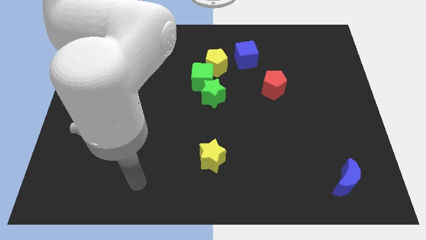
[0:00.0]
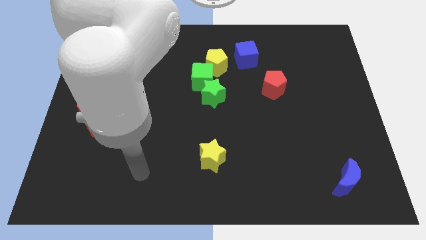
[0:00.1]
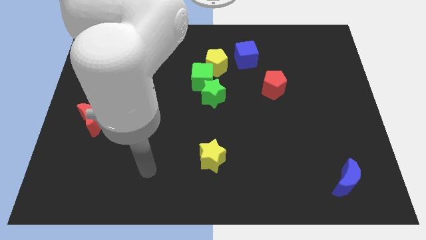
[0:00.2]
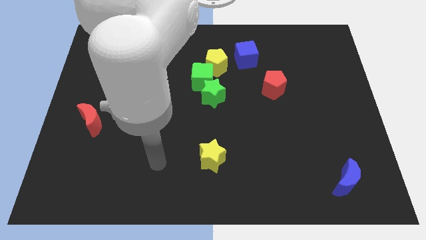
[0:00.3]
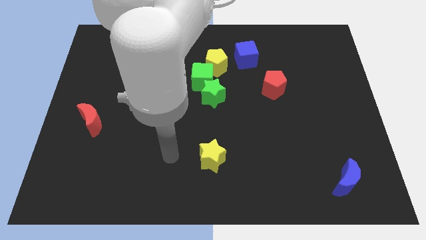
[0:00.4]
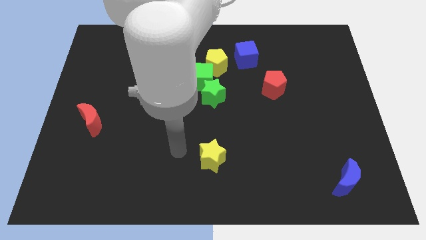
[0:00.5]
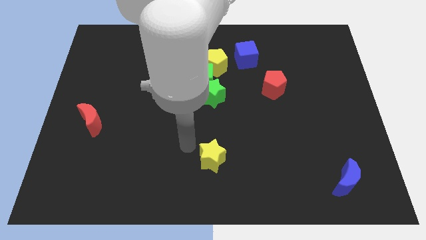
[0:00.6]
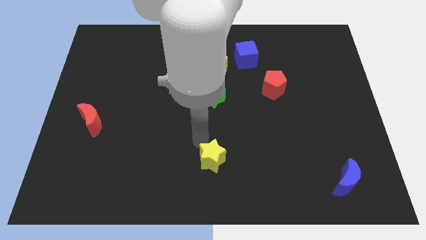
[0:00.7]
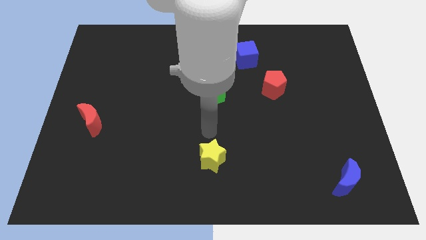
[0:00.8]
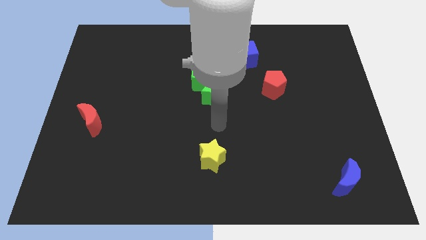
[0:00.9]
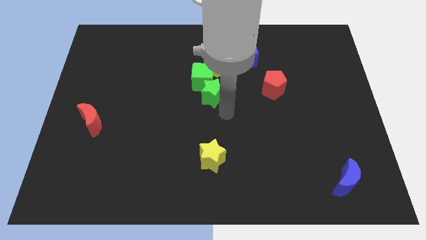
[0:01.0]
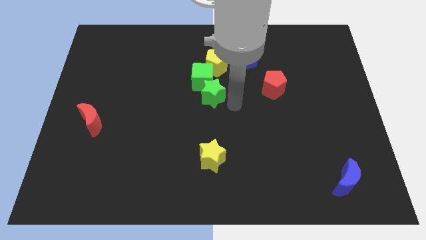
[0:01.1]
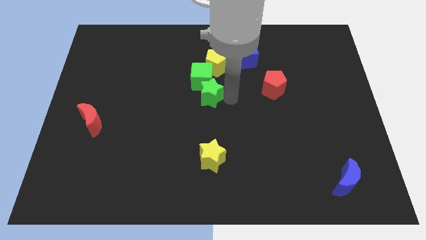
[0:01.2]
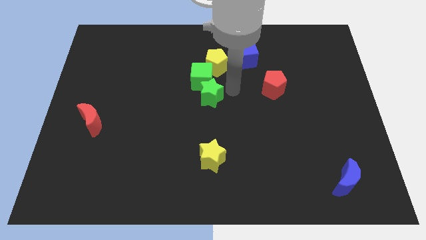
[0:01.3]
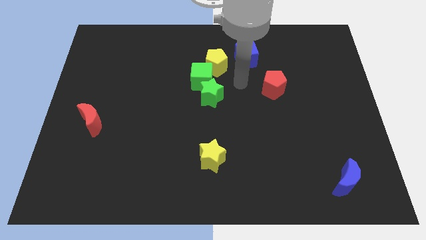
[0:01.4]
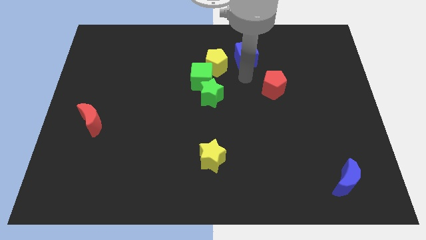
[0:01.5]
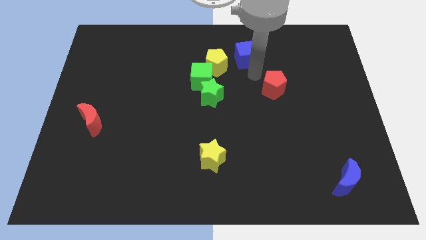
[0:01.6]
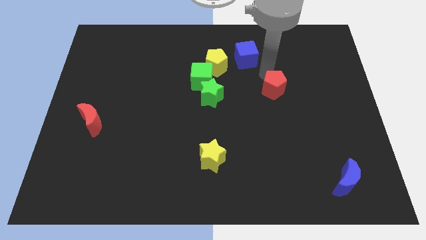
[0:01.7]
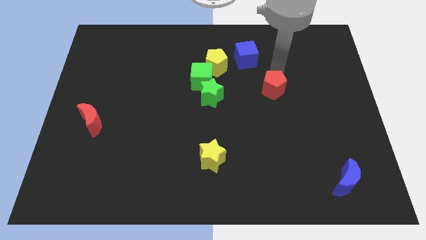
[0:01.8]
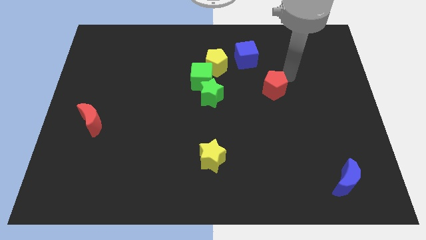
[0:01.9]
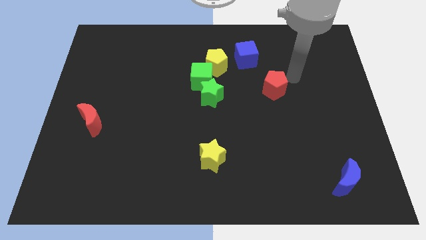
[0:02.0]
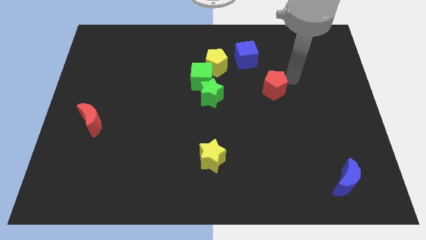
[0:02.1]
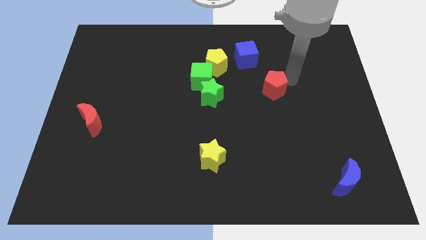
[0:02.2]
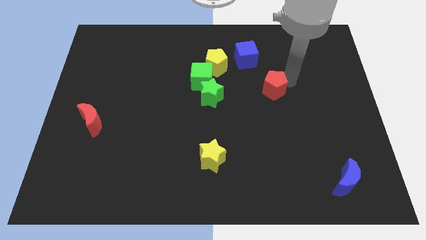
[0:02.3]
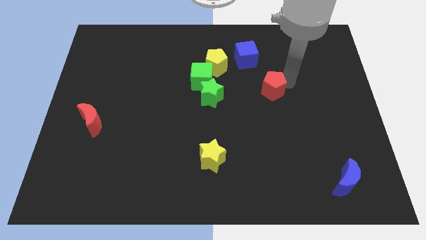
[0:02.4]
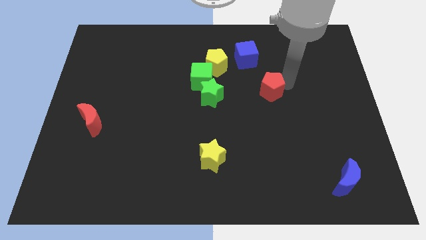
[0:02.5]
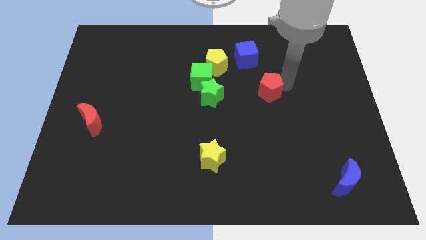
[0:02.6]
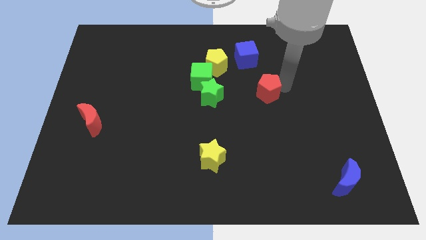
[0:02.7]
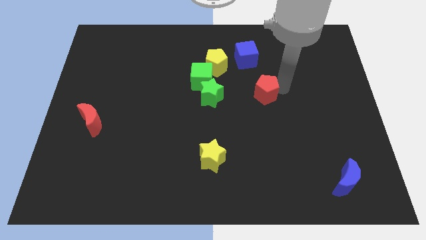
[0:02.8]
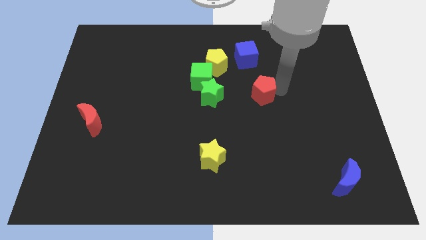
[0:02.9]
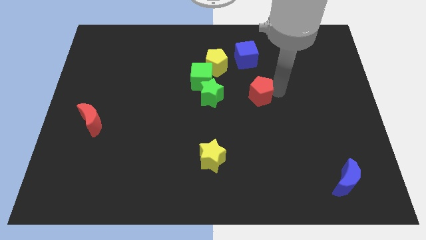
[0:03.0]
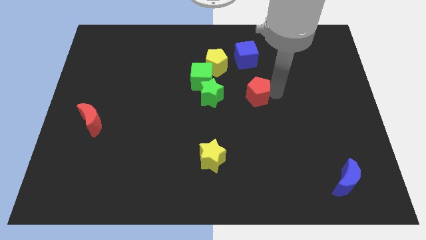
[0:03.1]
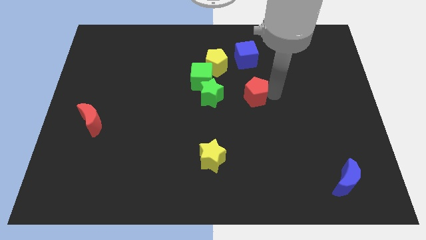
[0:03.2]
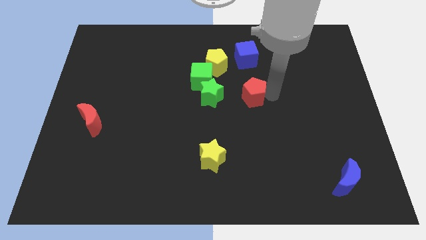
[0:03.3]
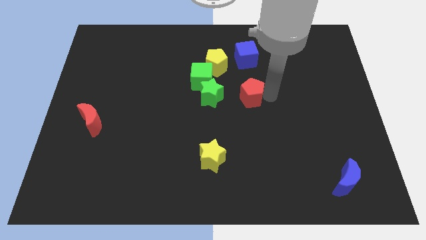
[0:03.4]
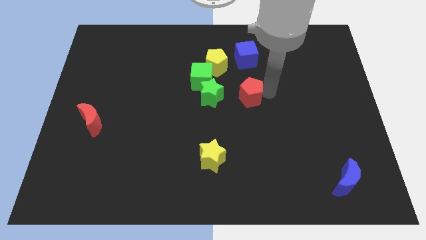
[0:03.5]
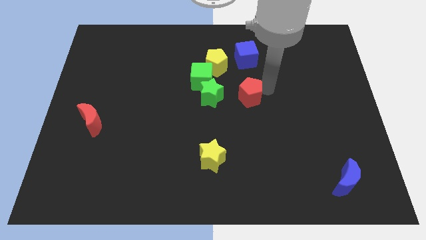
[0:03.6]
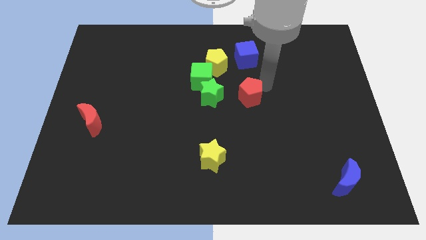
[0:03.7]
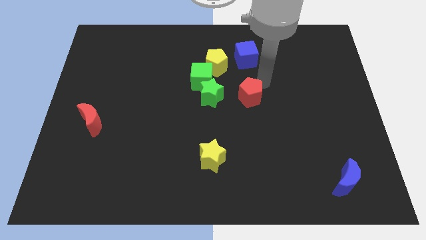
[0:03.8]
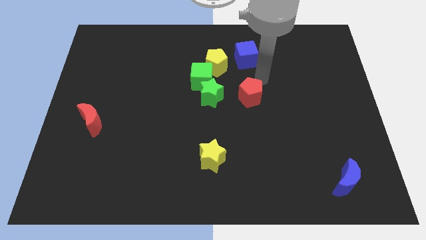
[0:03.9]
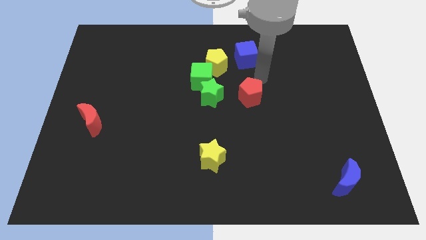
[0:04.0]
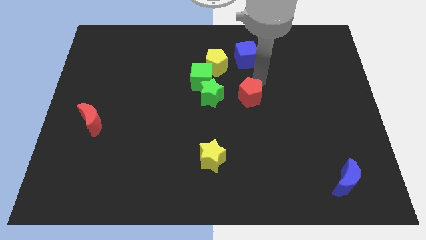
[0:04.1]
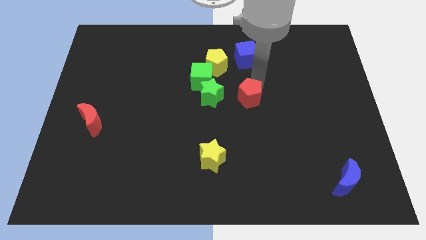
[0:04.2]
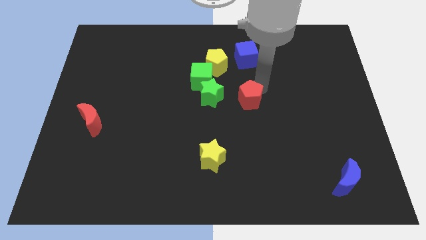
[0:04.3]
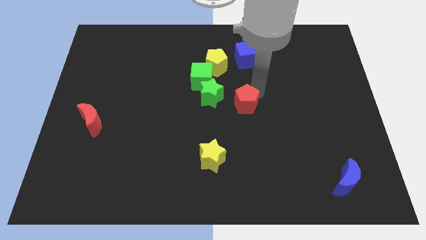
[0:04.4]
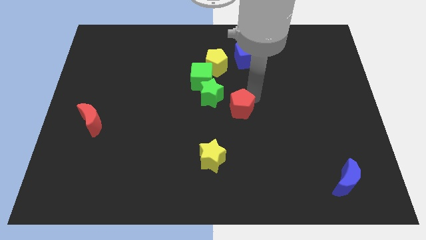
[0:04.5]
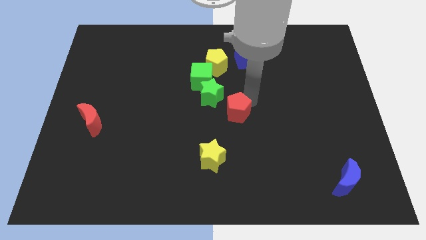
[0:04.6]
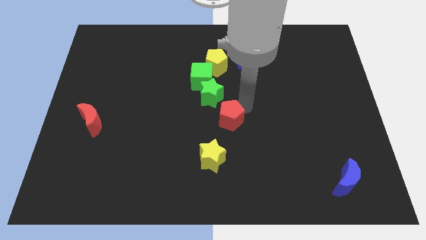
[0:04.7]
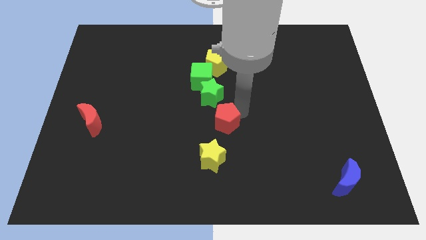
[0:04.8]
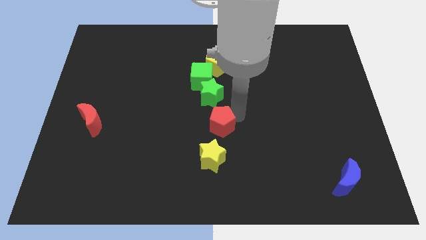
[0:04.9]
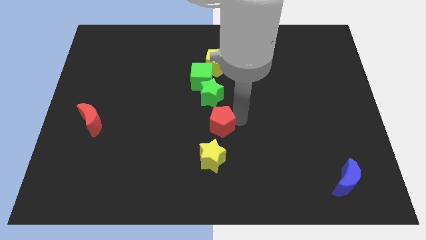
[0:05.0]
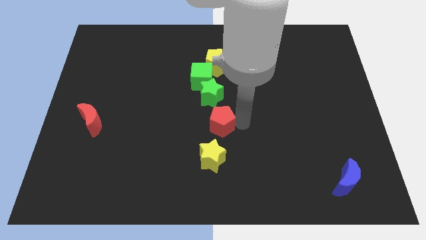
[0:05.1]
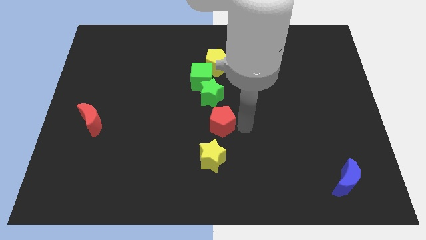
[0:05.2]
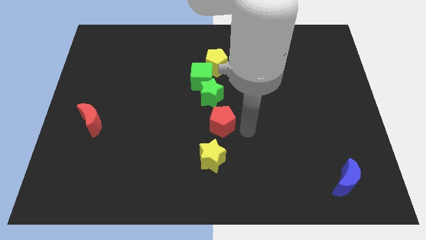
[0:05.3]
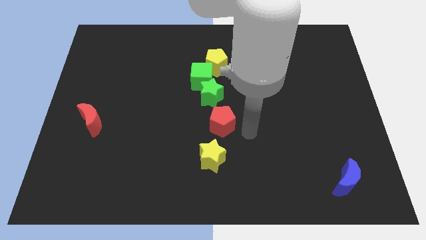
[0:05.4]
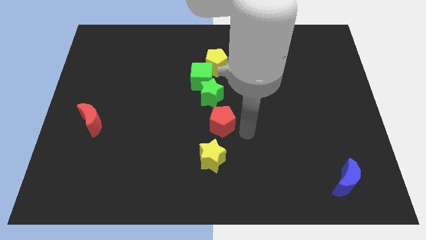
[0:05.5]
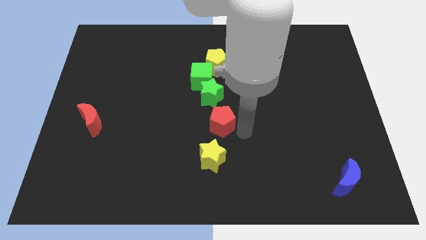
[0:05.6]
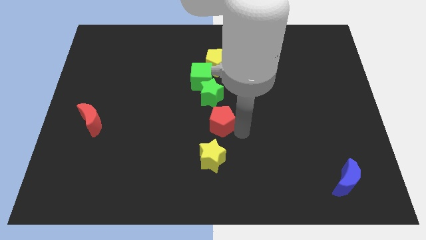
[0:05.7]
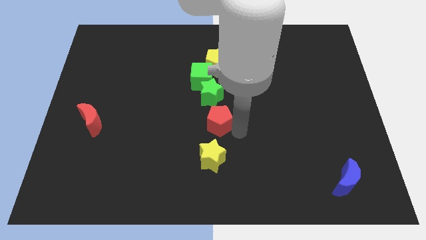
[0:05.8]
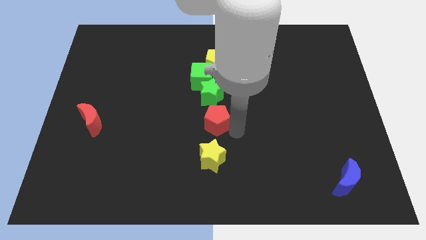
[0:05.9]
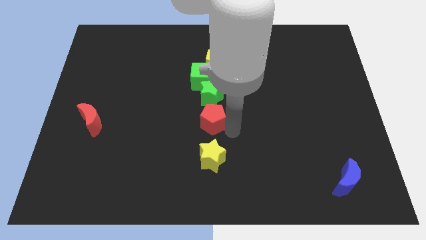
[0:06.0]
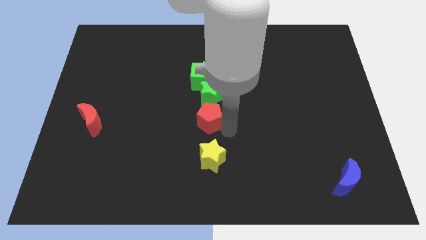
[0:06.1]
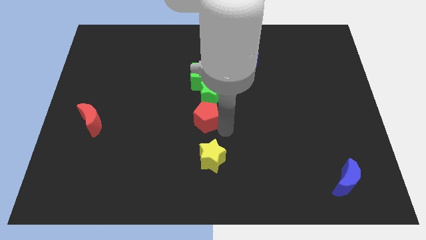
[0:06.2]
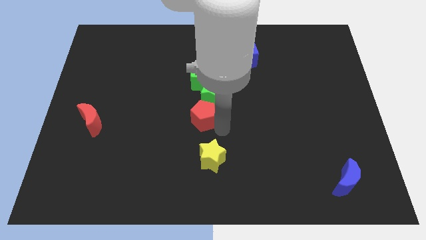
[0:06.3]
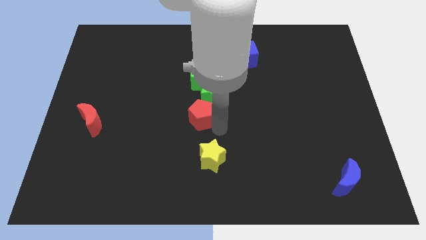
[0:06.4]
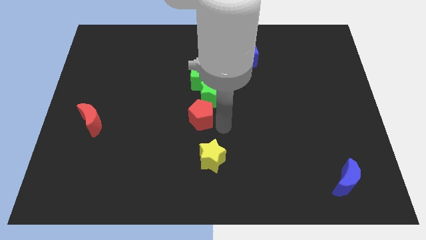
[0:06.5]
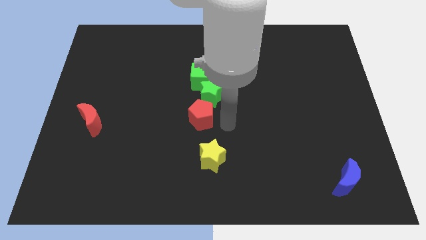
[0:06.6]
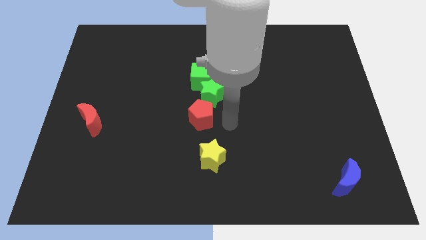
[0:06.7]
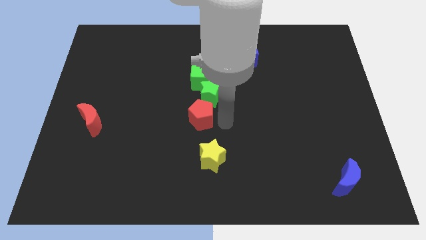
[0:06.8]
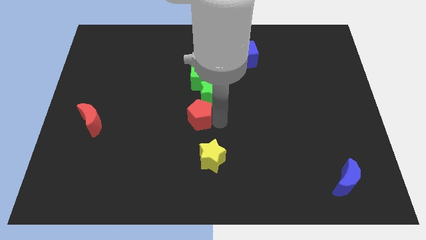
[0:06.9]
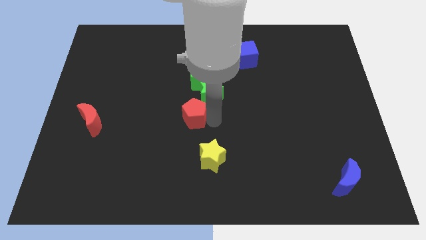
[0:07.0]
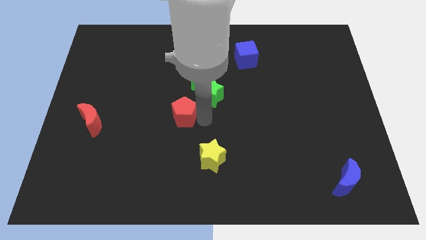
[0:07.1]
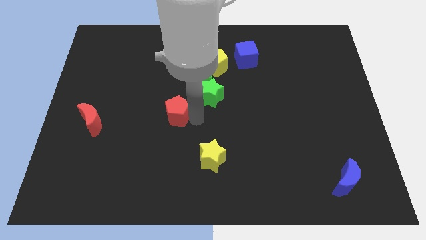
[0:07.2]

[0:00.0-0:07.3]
move the red pentagon to the left

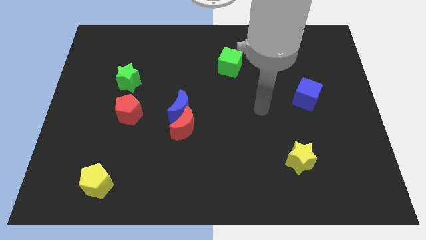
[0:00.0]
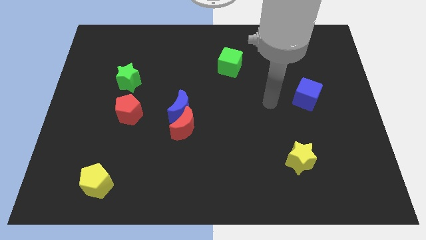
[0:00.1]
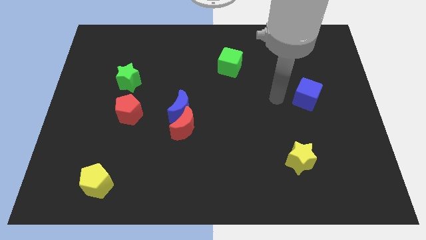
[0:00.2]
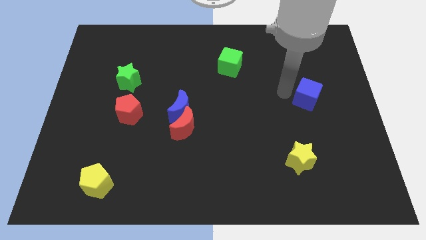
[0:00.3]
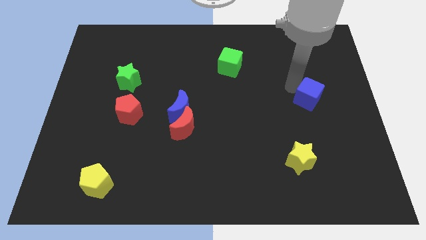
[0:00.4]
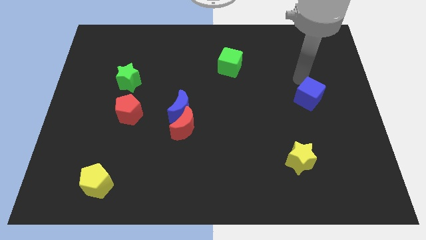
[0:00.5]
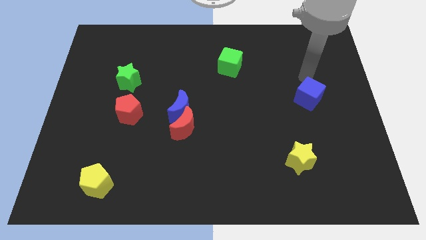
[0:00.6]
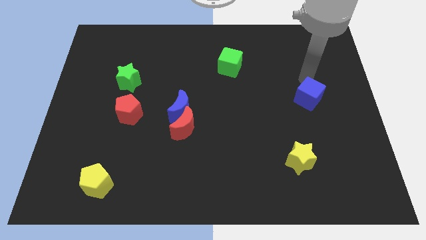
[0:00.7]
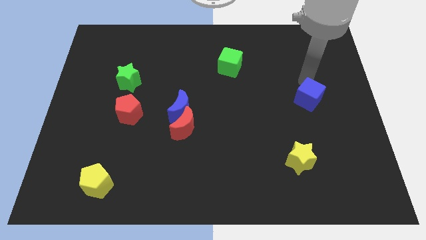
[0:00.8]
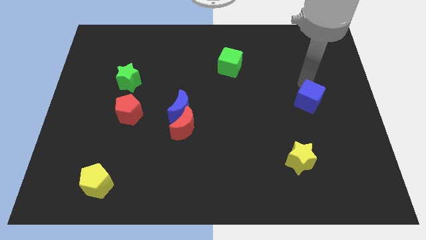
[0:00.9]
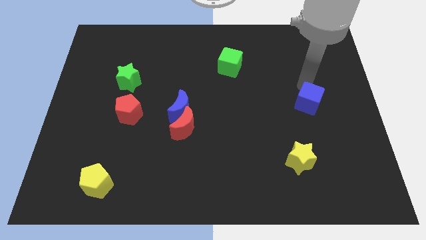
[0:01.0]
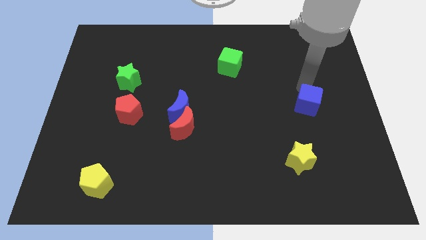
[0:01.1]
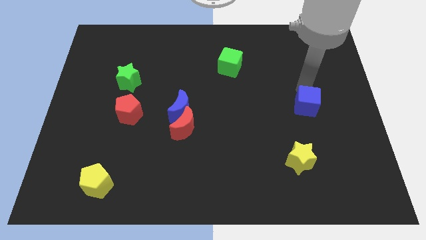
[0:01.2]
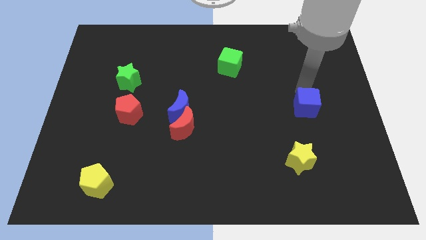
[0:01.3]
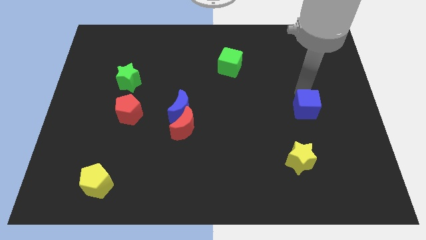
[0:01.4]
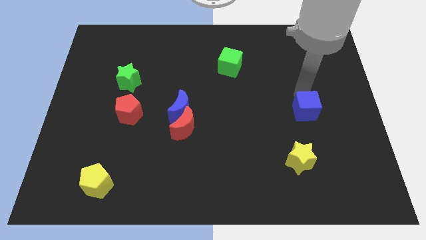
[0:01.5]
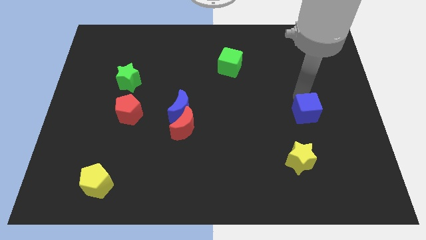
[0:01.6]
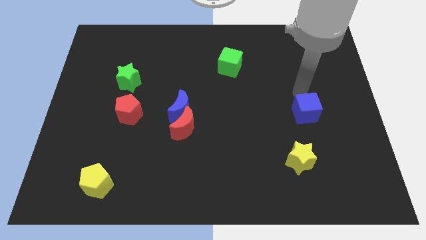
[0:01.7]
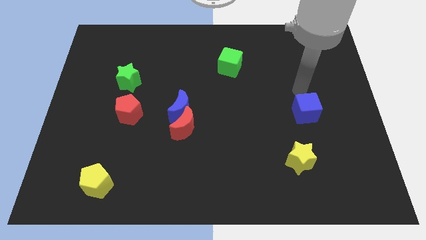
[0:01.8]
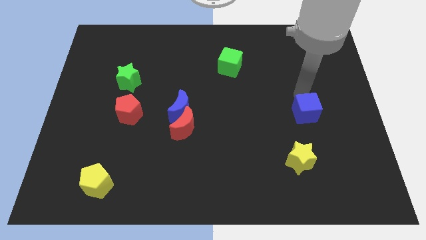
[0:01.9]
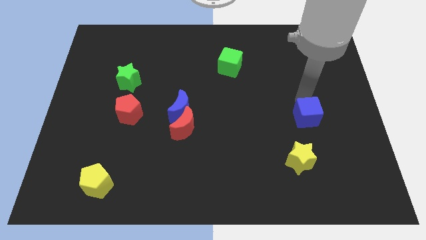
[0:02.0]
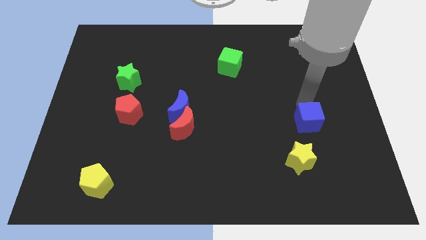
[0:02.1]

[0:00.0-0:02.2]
push the blue cube down a bit
